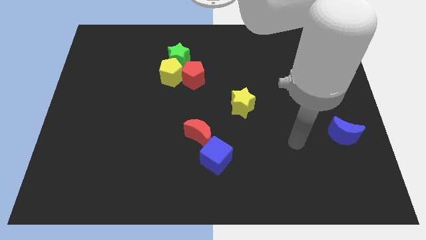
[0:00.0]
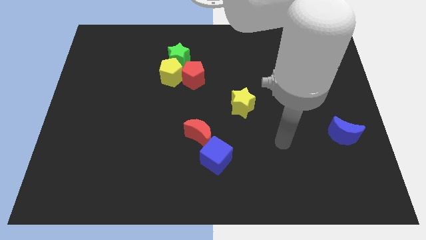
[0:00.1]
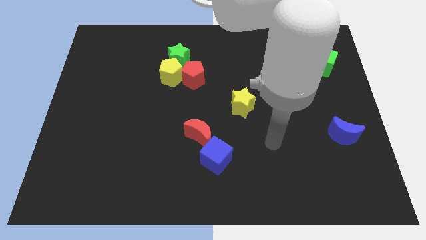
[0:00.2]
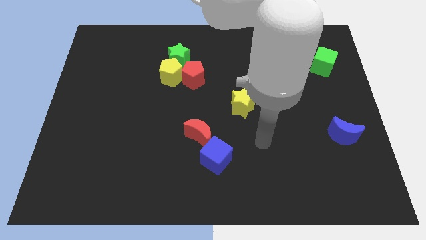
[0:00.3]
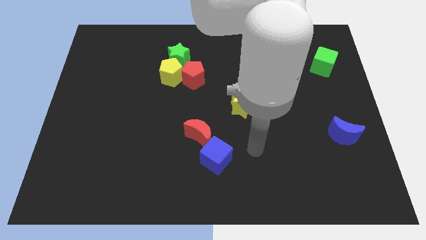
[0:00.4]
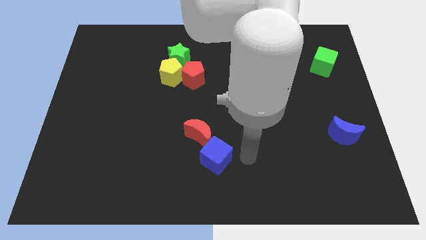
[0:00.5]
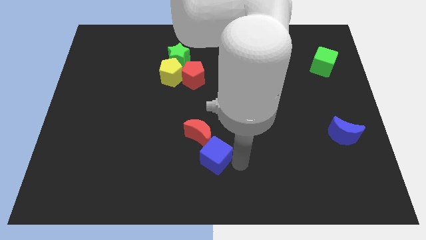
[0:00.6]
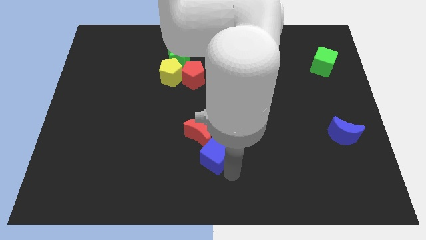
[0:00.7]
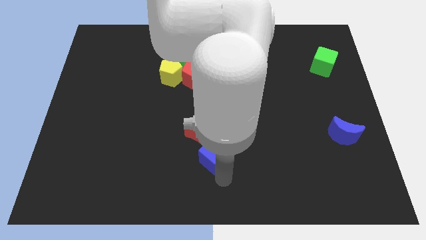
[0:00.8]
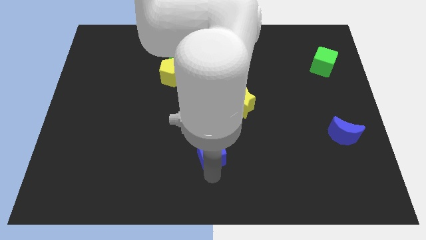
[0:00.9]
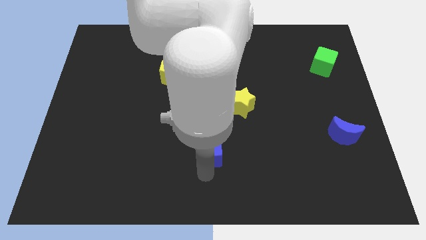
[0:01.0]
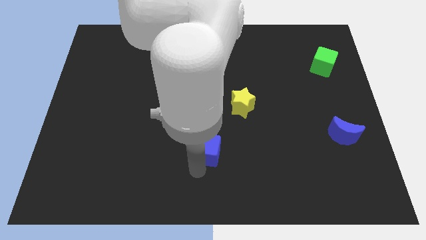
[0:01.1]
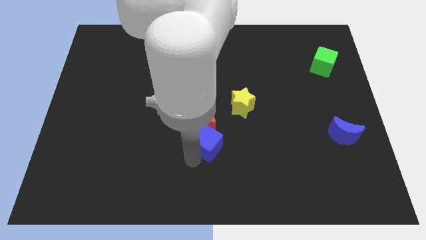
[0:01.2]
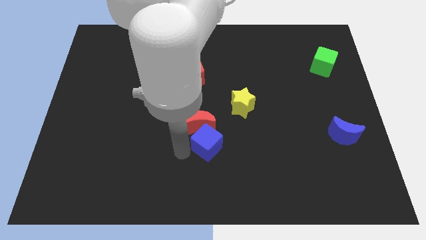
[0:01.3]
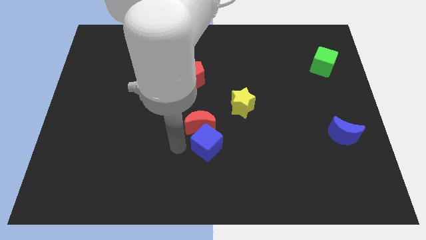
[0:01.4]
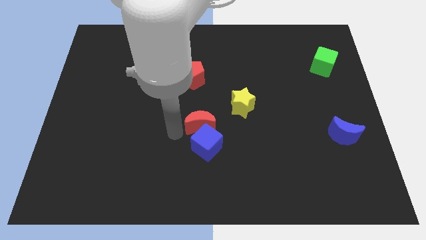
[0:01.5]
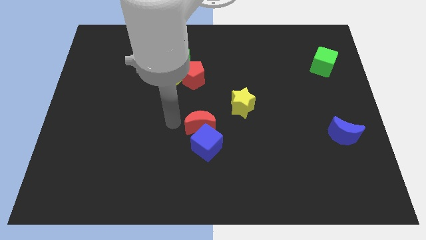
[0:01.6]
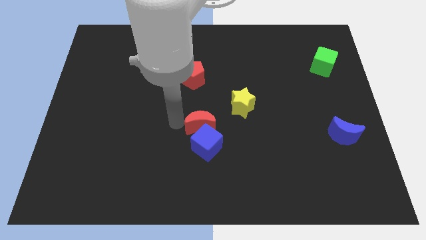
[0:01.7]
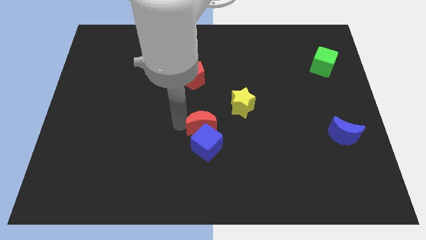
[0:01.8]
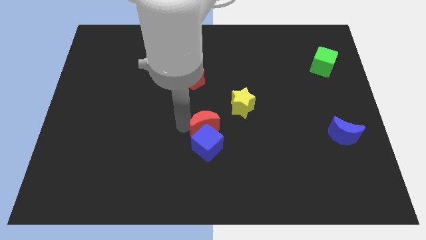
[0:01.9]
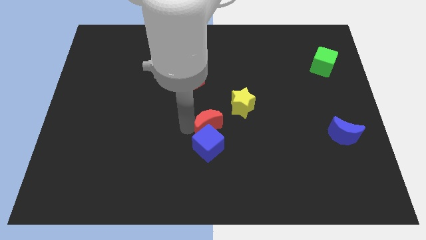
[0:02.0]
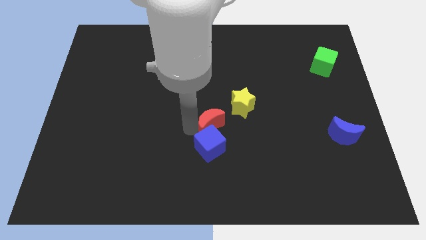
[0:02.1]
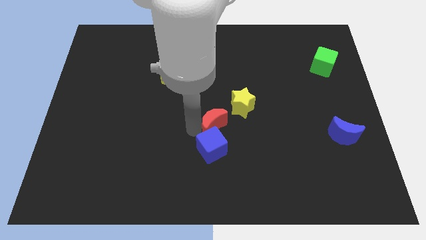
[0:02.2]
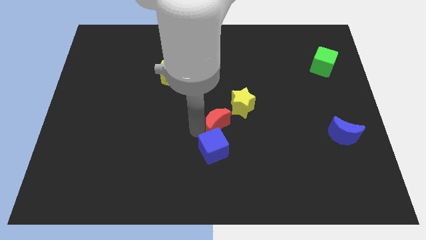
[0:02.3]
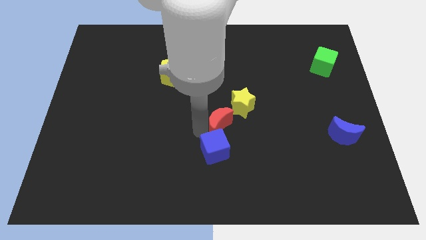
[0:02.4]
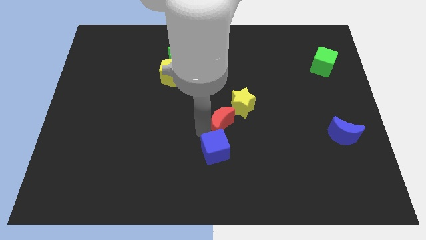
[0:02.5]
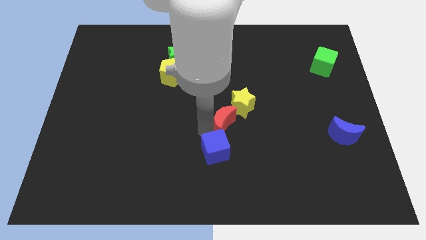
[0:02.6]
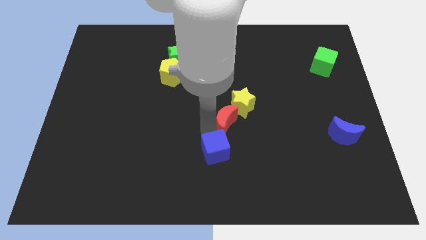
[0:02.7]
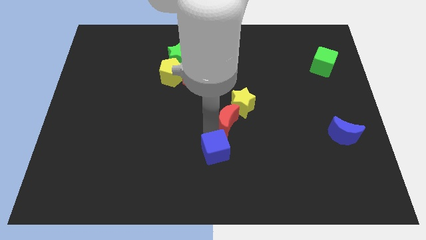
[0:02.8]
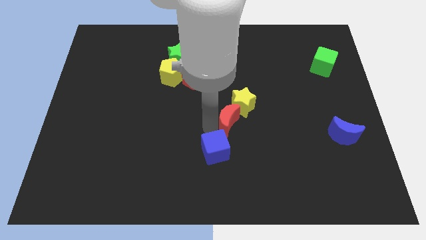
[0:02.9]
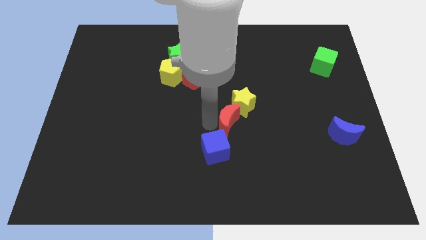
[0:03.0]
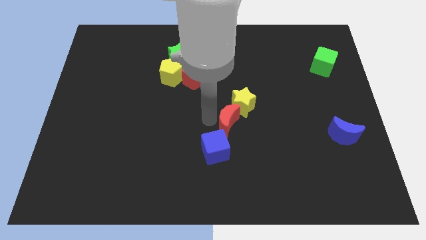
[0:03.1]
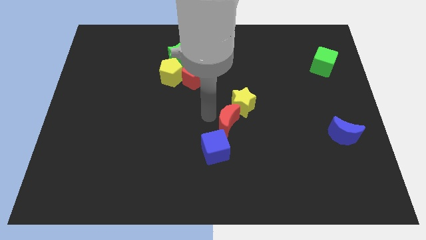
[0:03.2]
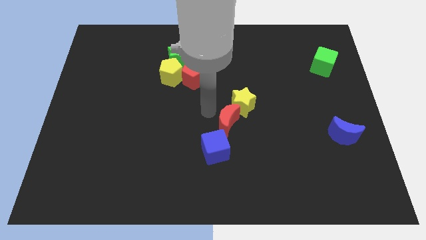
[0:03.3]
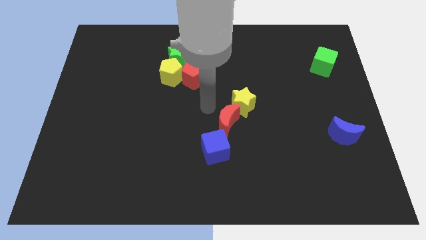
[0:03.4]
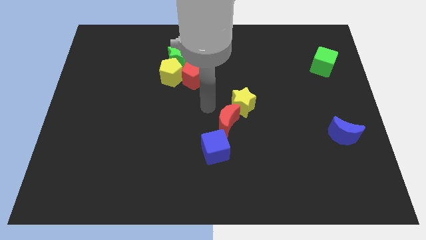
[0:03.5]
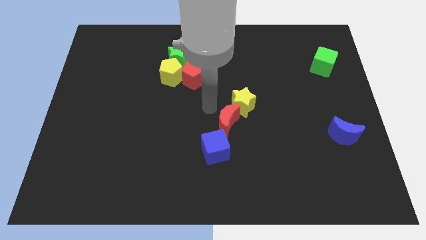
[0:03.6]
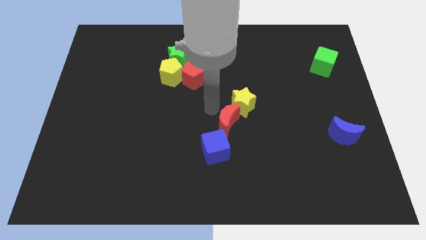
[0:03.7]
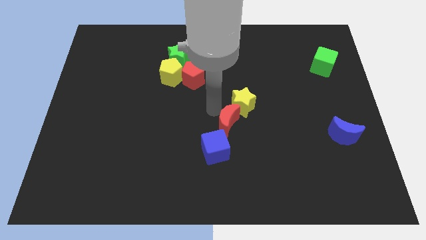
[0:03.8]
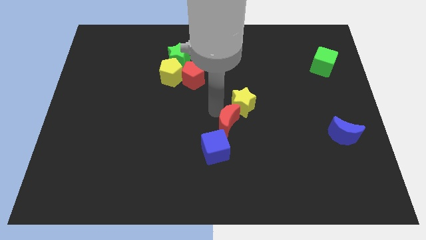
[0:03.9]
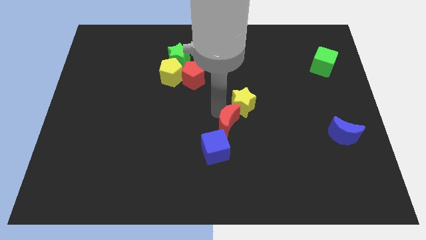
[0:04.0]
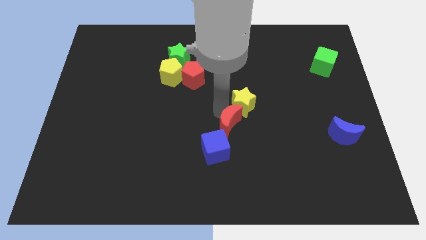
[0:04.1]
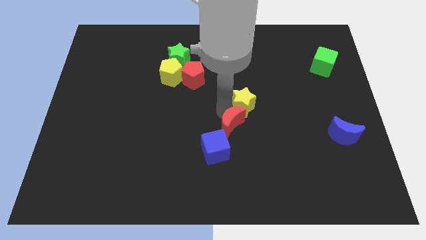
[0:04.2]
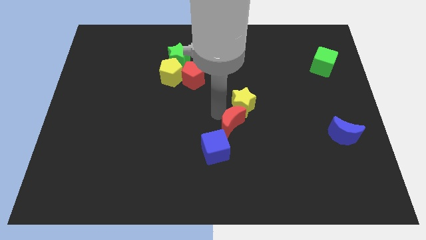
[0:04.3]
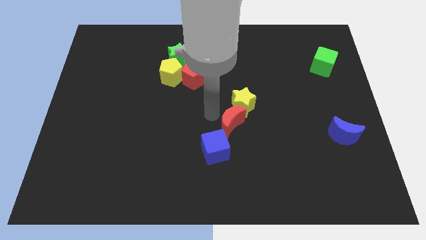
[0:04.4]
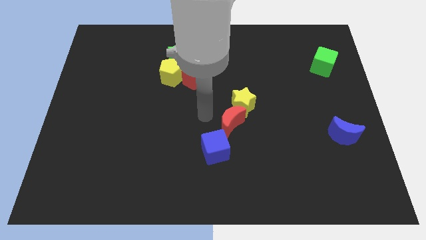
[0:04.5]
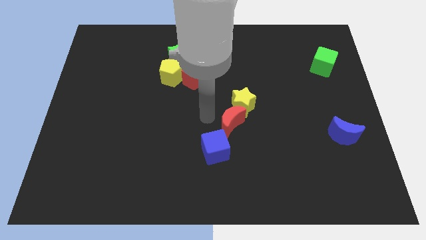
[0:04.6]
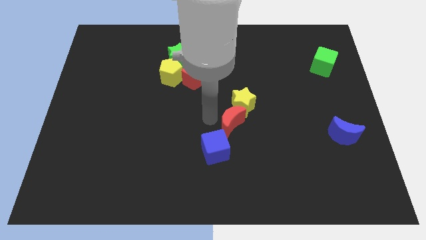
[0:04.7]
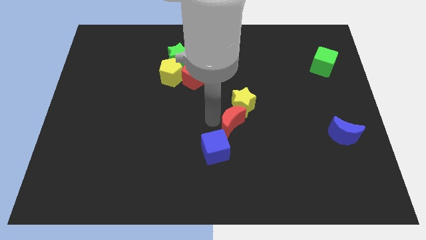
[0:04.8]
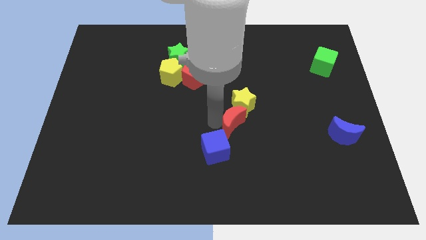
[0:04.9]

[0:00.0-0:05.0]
slide the red moon right a bit

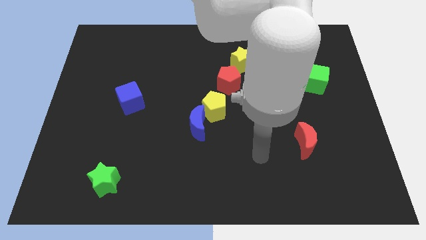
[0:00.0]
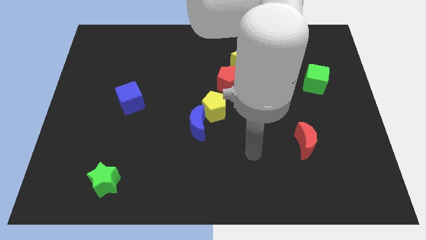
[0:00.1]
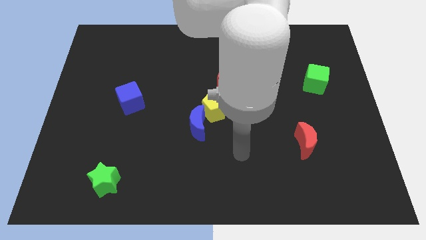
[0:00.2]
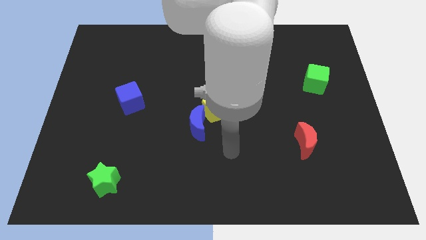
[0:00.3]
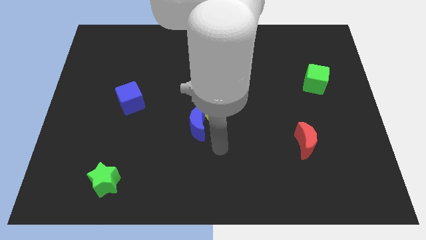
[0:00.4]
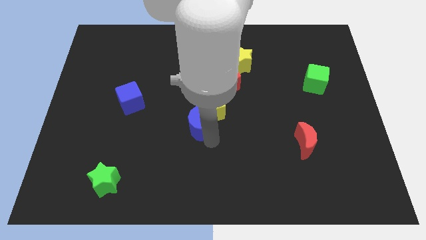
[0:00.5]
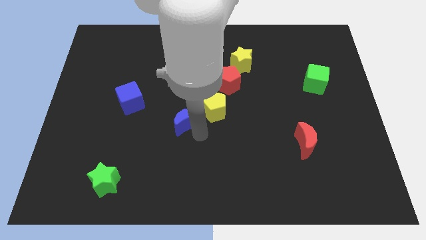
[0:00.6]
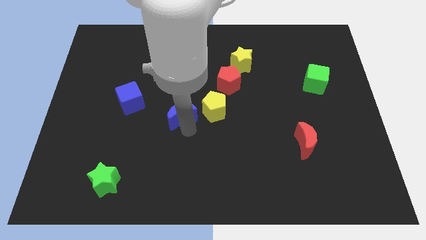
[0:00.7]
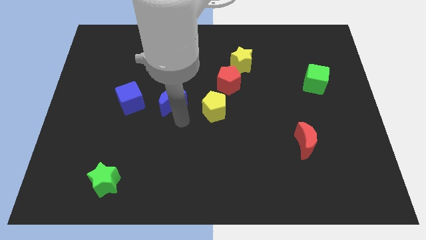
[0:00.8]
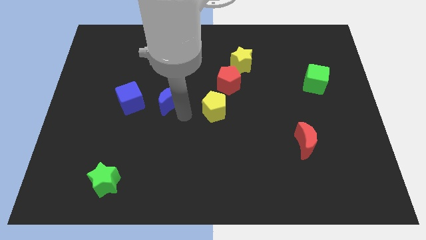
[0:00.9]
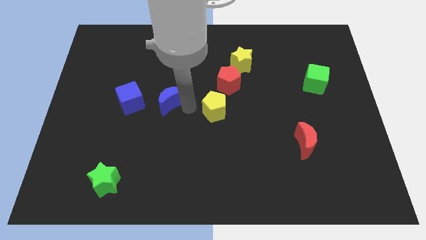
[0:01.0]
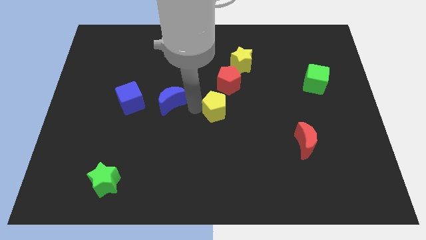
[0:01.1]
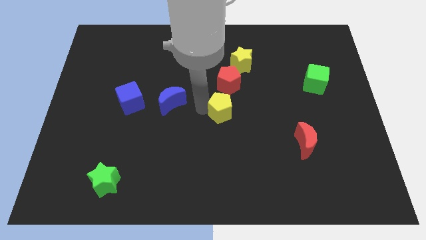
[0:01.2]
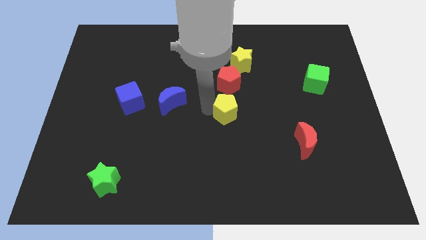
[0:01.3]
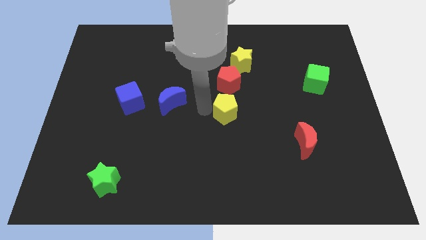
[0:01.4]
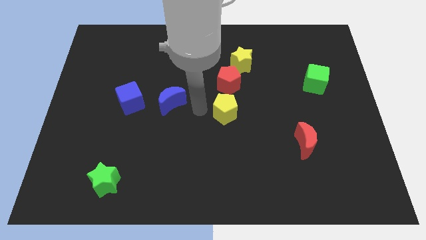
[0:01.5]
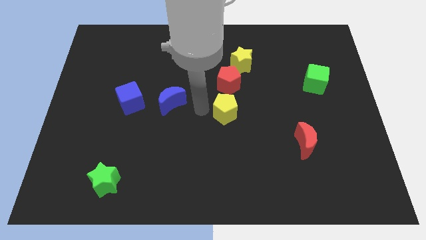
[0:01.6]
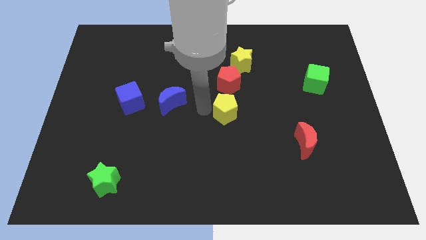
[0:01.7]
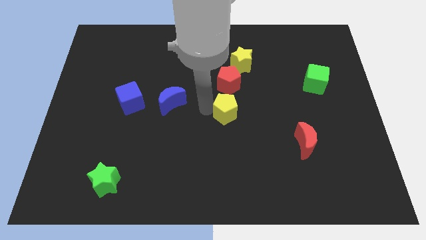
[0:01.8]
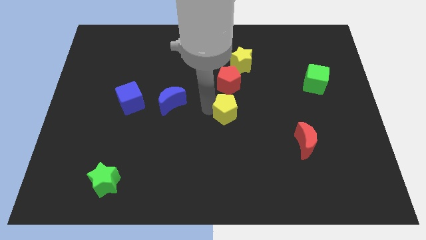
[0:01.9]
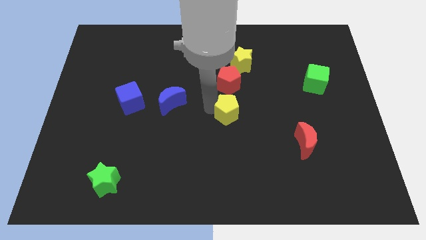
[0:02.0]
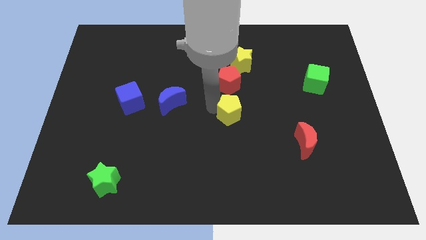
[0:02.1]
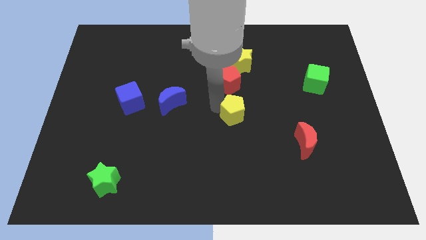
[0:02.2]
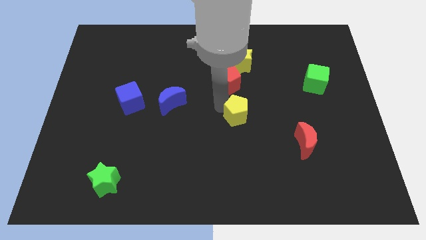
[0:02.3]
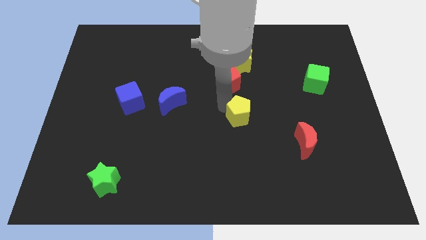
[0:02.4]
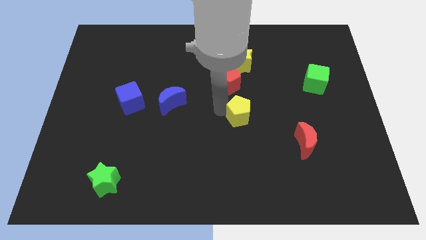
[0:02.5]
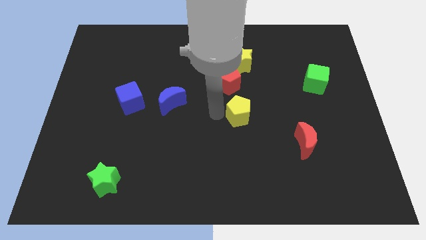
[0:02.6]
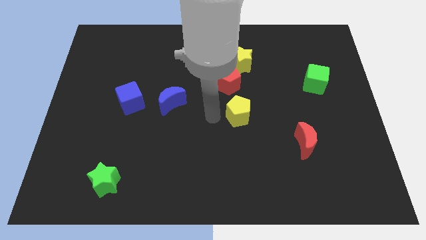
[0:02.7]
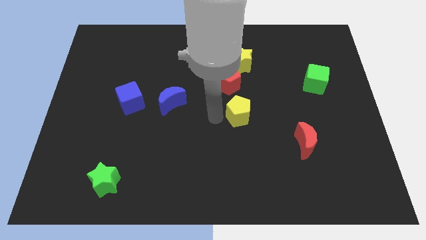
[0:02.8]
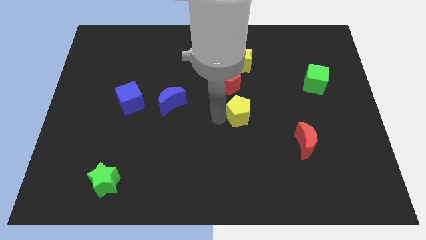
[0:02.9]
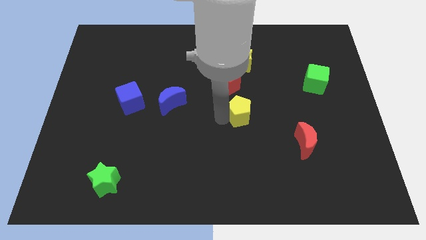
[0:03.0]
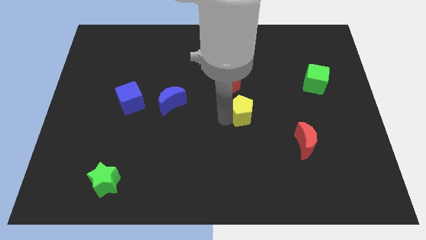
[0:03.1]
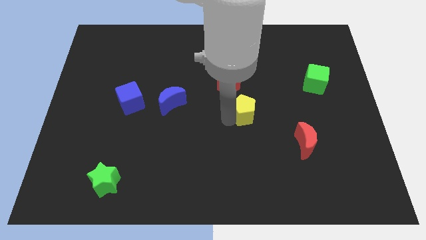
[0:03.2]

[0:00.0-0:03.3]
push the yellow pentagon somewhat to the right
